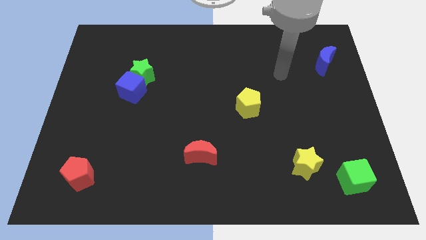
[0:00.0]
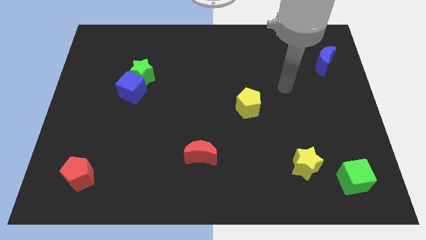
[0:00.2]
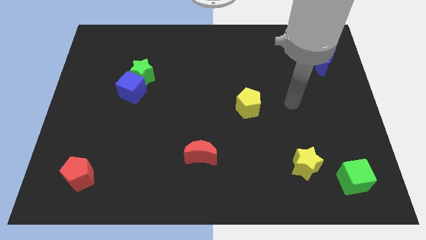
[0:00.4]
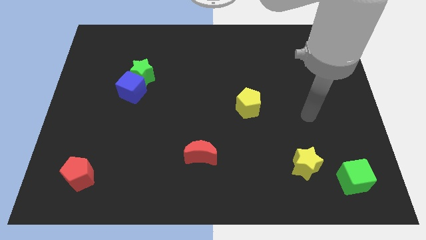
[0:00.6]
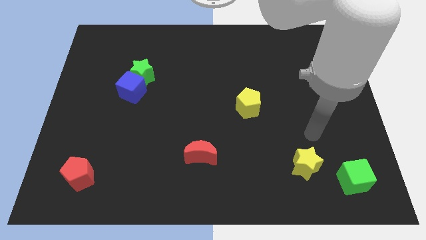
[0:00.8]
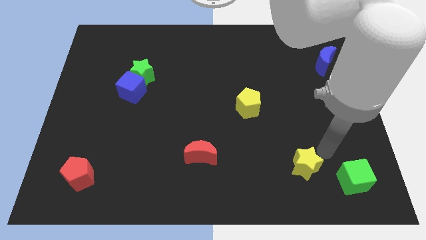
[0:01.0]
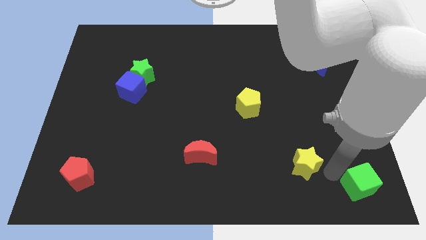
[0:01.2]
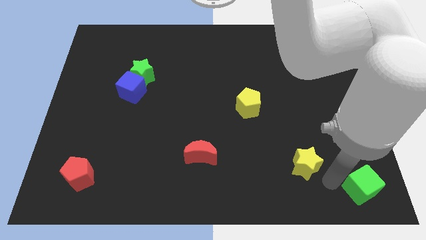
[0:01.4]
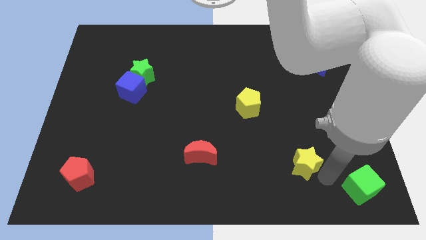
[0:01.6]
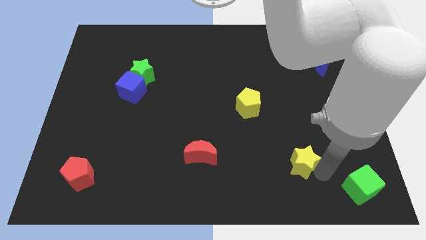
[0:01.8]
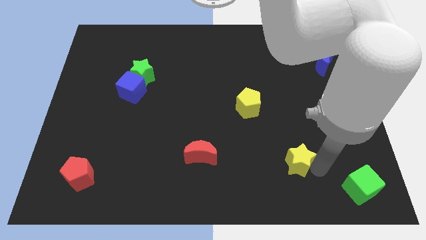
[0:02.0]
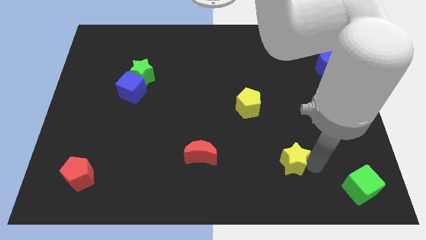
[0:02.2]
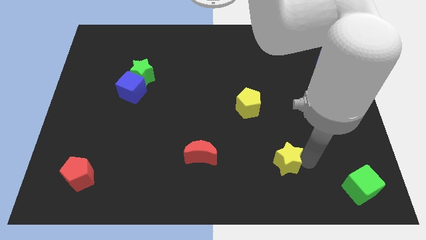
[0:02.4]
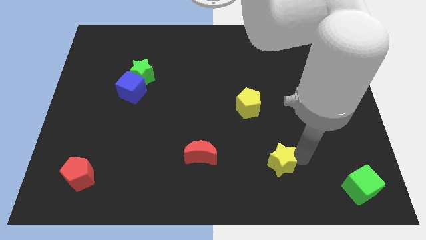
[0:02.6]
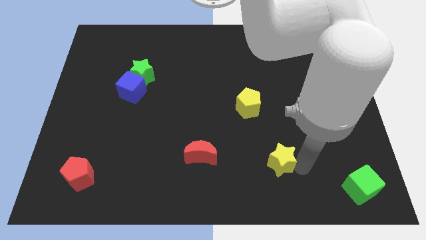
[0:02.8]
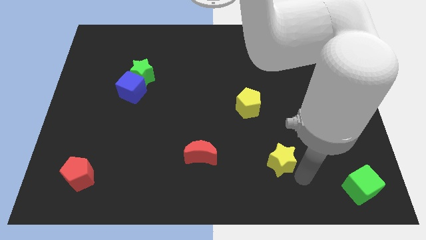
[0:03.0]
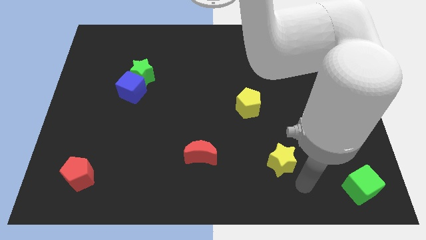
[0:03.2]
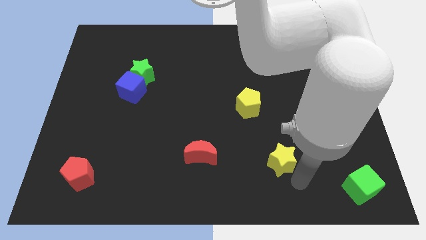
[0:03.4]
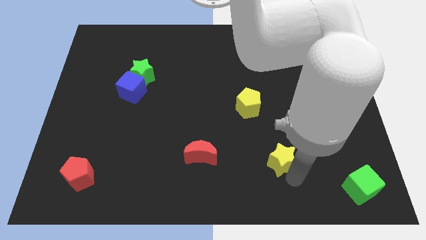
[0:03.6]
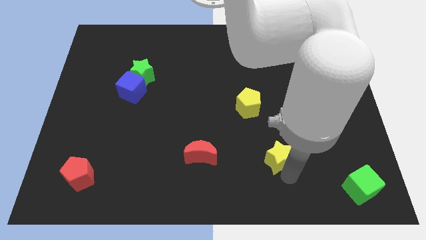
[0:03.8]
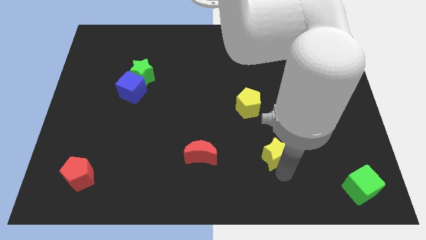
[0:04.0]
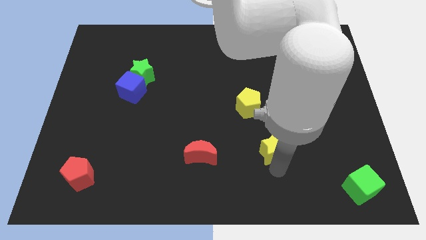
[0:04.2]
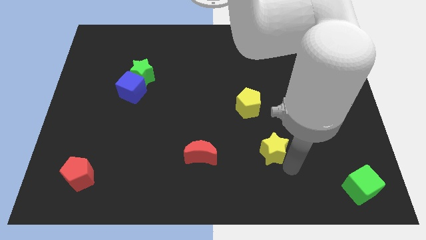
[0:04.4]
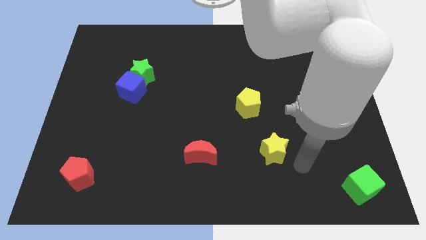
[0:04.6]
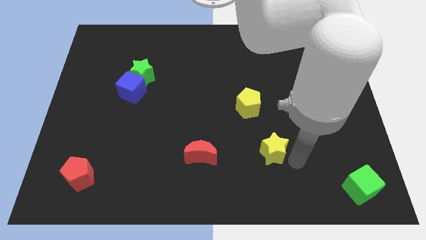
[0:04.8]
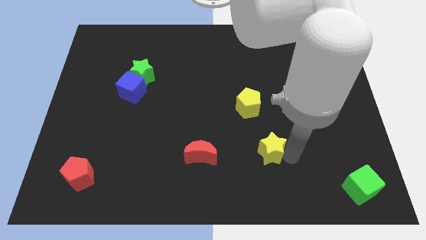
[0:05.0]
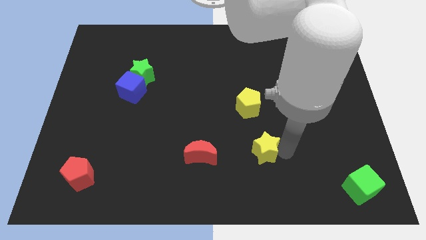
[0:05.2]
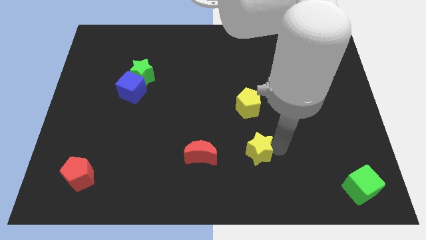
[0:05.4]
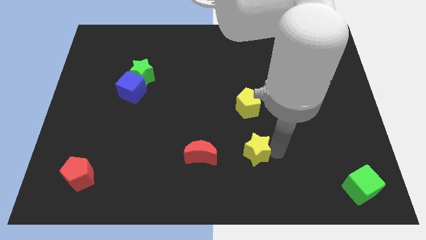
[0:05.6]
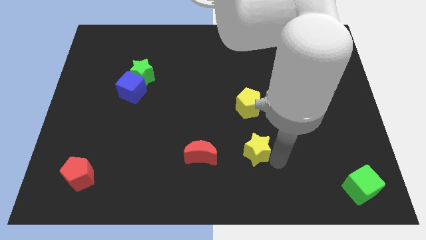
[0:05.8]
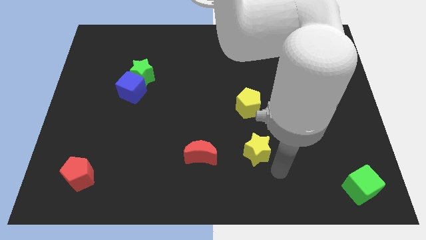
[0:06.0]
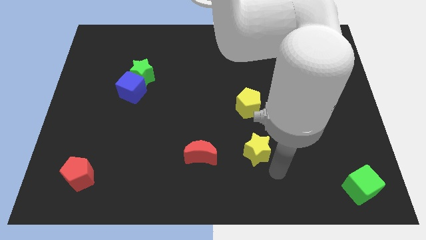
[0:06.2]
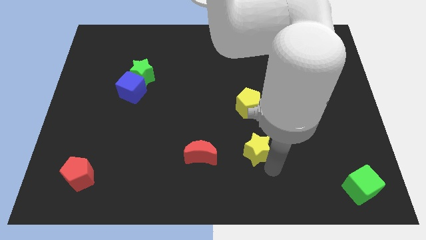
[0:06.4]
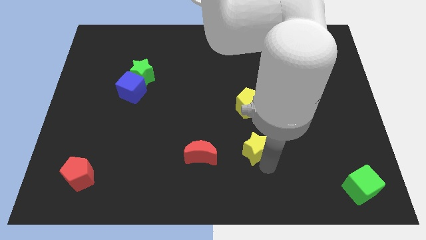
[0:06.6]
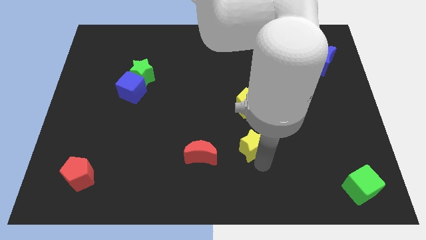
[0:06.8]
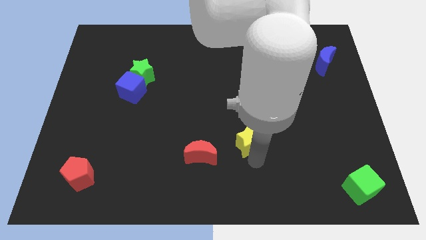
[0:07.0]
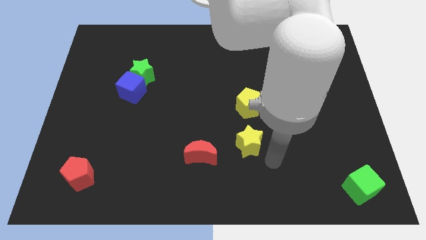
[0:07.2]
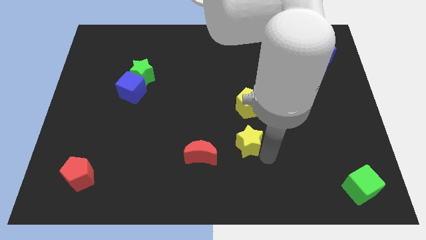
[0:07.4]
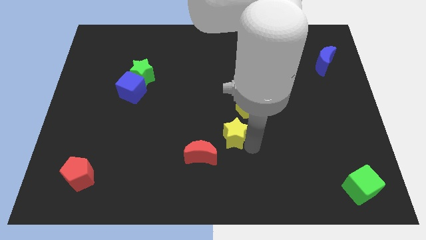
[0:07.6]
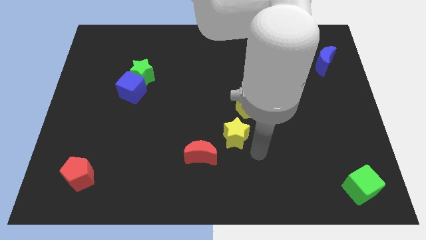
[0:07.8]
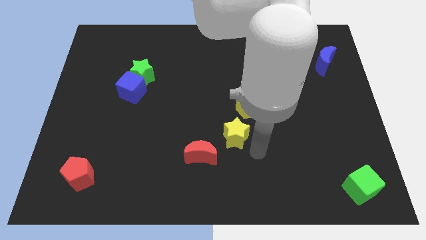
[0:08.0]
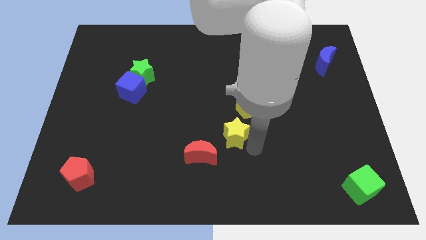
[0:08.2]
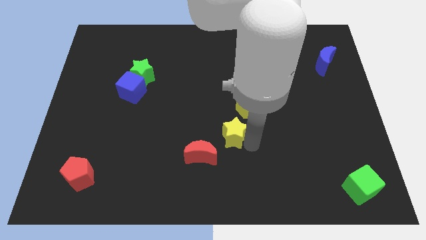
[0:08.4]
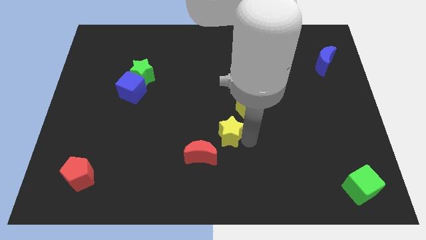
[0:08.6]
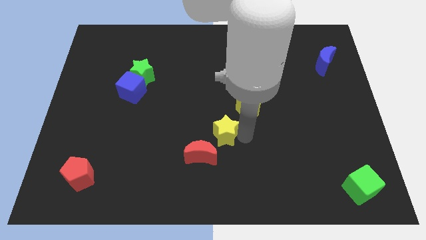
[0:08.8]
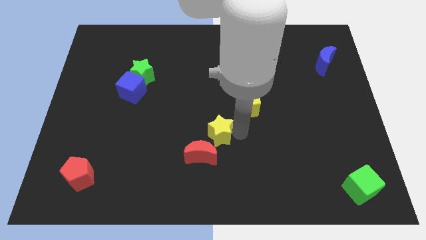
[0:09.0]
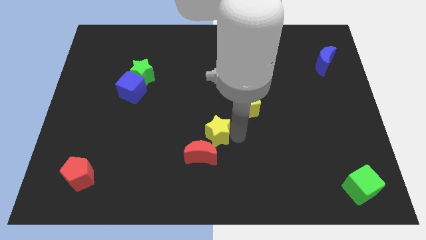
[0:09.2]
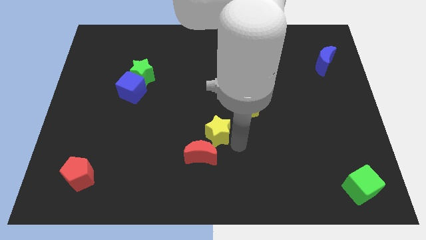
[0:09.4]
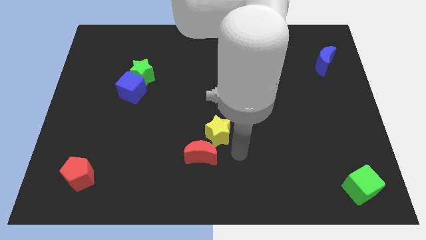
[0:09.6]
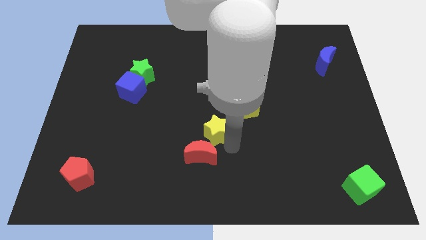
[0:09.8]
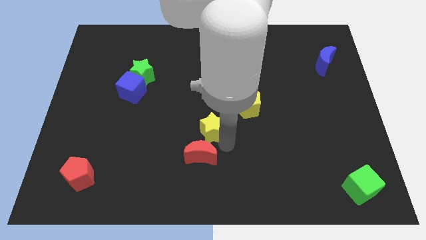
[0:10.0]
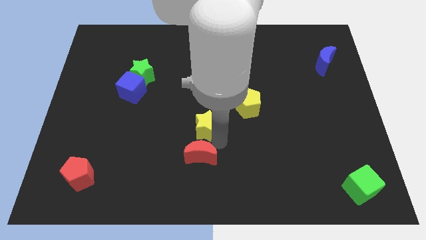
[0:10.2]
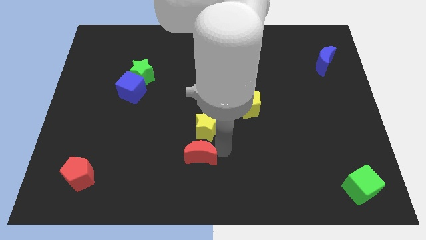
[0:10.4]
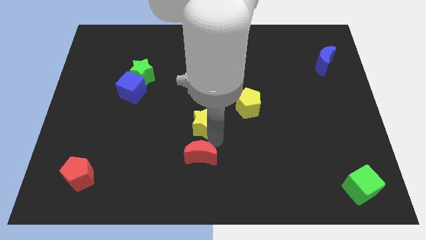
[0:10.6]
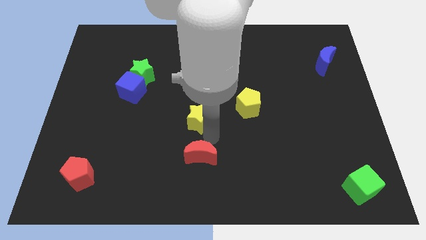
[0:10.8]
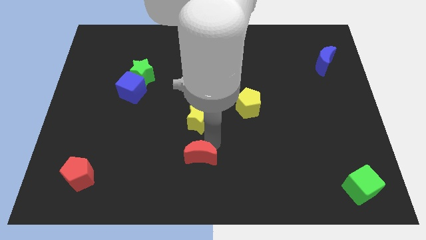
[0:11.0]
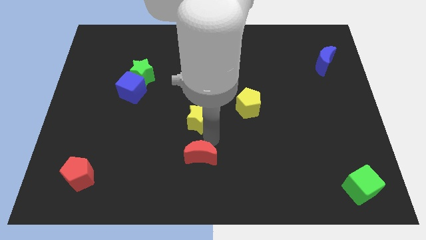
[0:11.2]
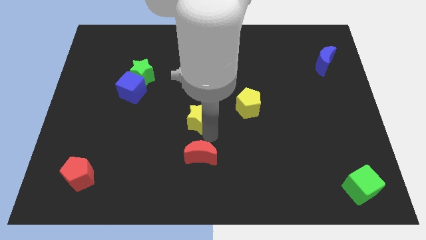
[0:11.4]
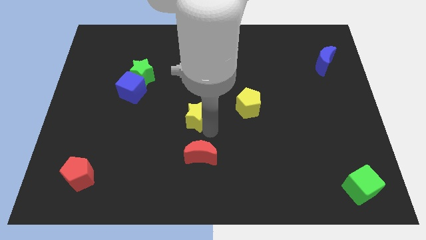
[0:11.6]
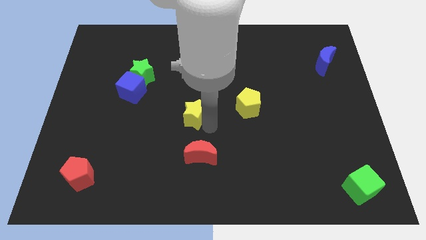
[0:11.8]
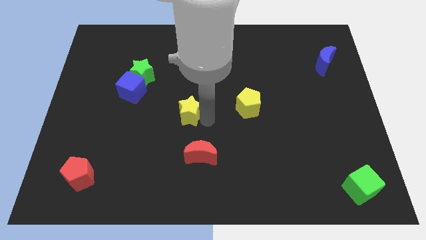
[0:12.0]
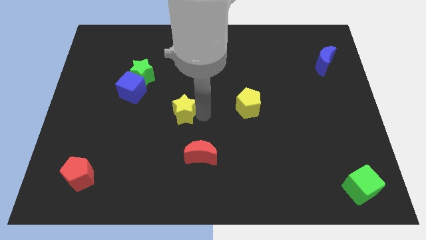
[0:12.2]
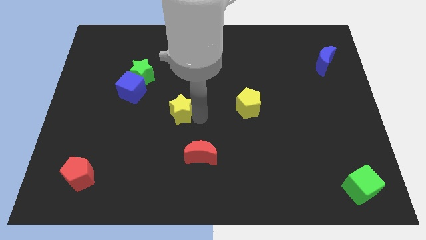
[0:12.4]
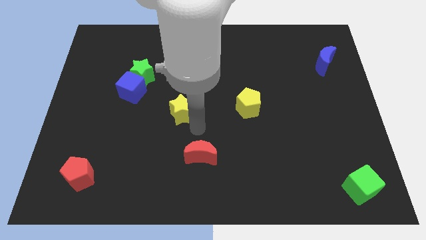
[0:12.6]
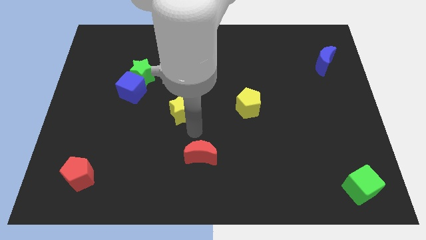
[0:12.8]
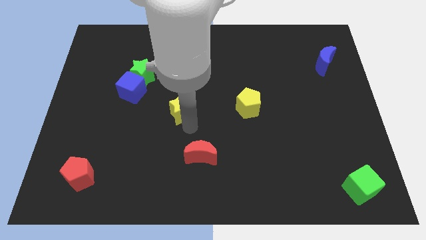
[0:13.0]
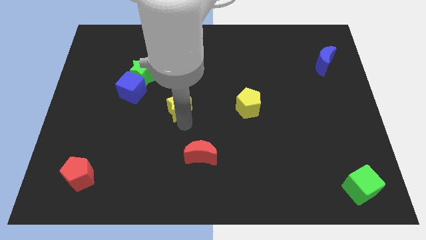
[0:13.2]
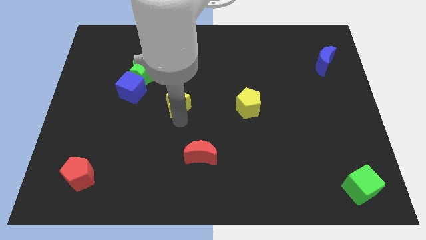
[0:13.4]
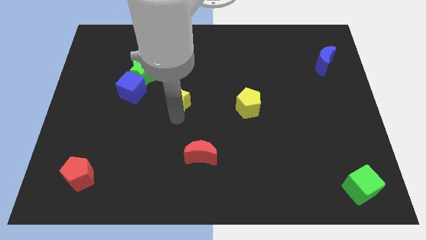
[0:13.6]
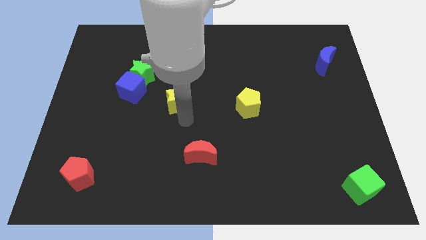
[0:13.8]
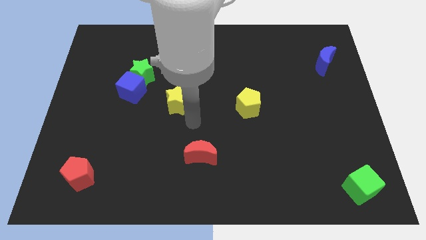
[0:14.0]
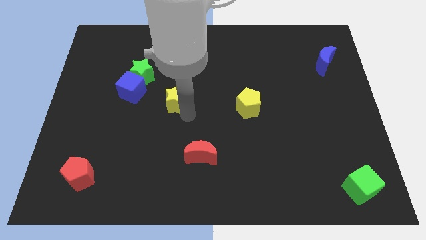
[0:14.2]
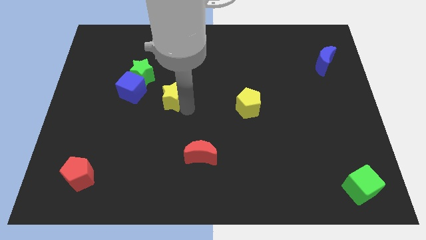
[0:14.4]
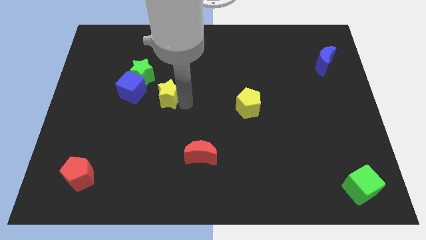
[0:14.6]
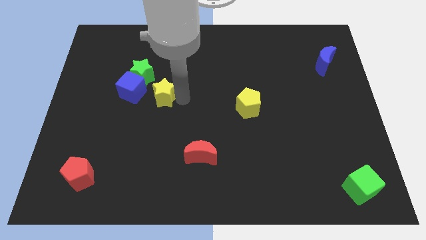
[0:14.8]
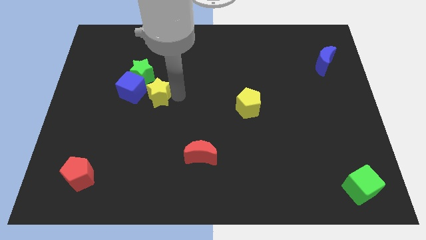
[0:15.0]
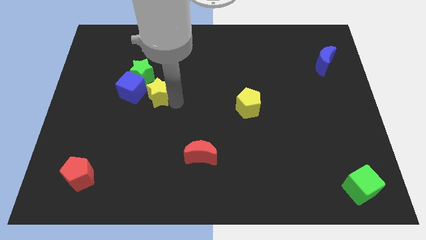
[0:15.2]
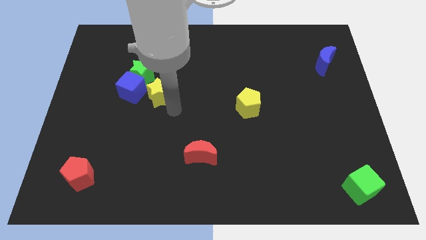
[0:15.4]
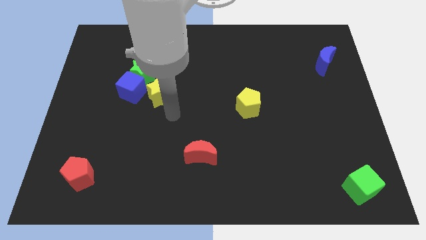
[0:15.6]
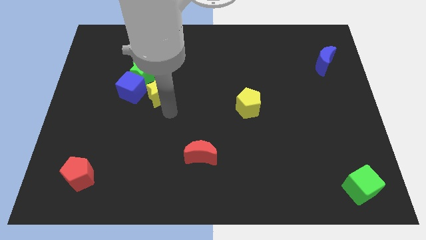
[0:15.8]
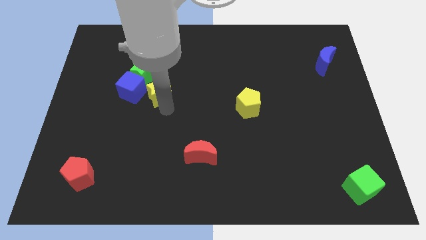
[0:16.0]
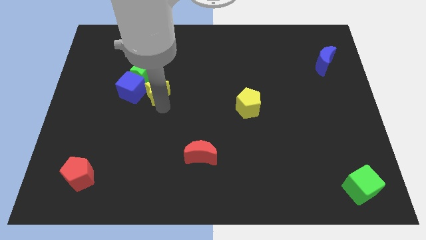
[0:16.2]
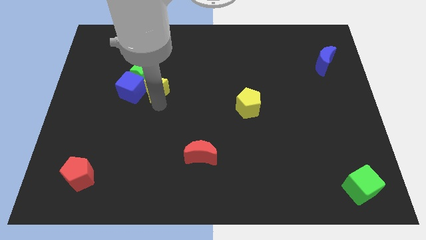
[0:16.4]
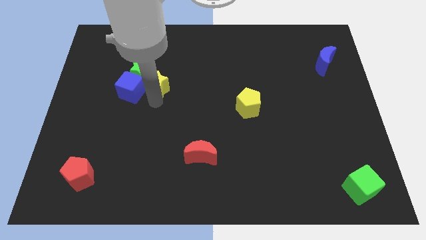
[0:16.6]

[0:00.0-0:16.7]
push the yellow star next to the green star
